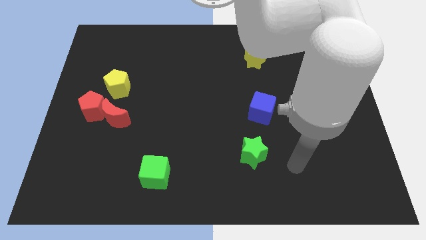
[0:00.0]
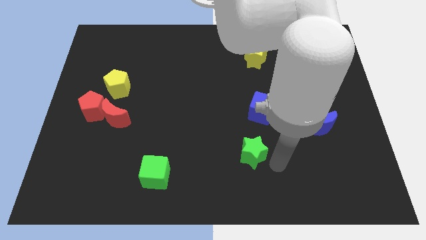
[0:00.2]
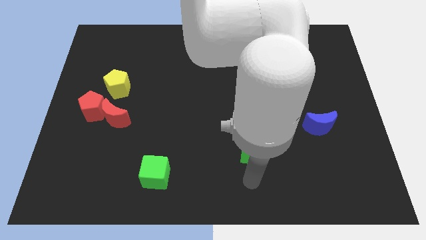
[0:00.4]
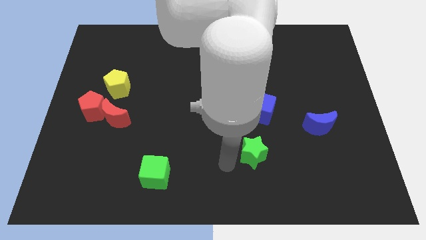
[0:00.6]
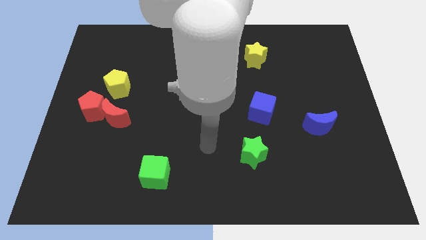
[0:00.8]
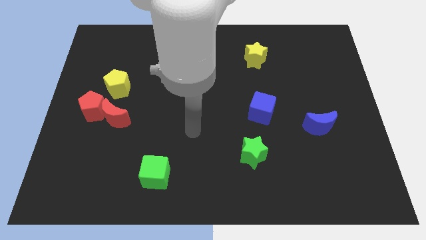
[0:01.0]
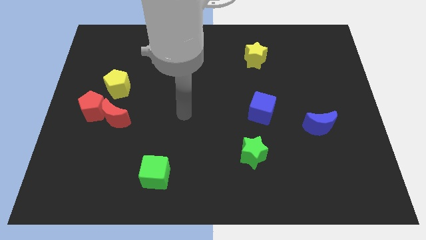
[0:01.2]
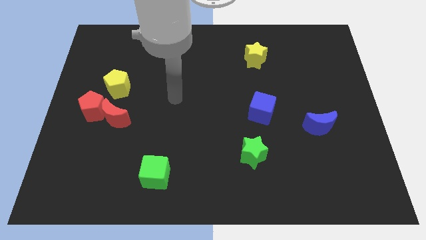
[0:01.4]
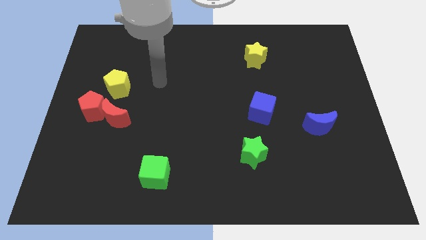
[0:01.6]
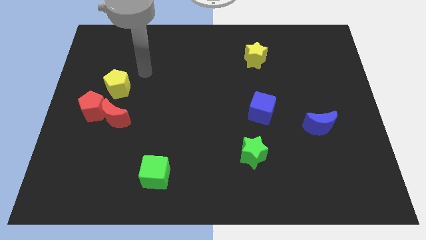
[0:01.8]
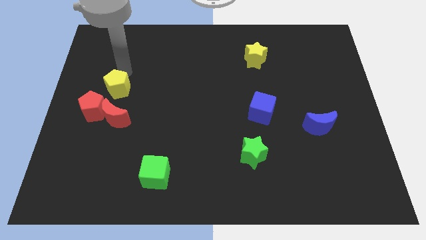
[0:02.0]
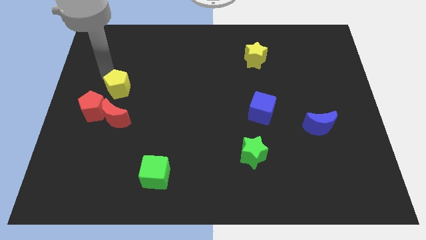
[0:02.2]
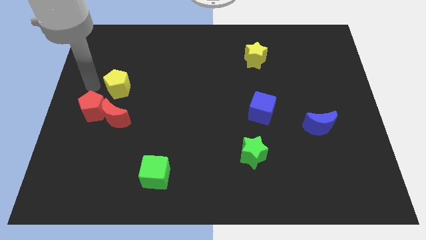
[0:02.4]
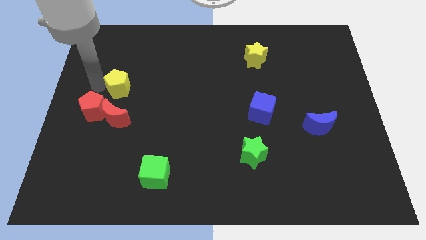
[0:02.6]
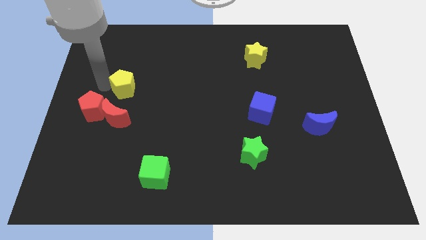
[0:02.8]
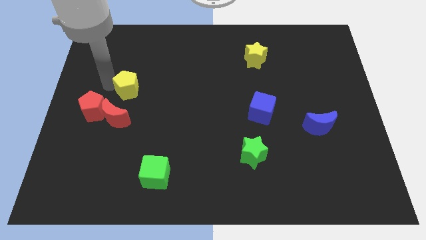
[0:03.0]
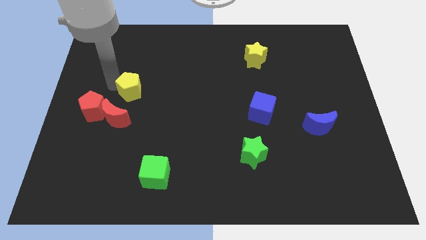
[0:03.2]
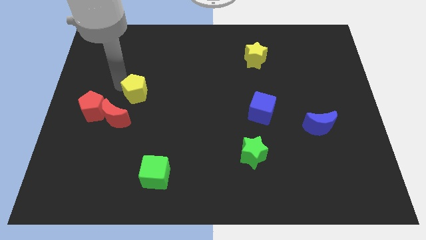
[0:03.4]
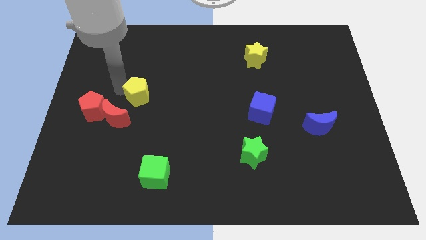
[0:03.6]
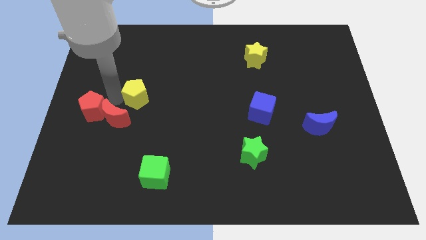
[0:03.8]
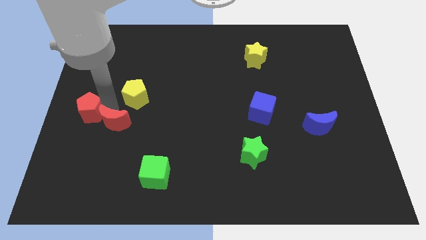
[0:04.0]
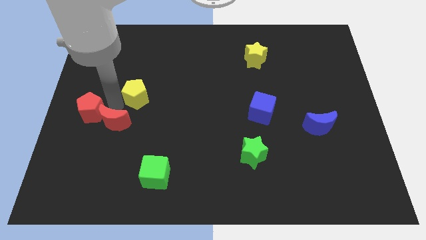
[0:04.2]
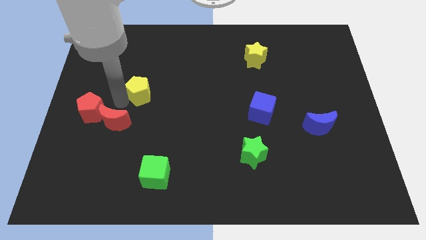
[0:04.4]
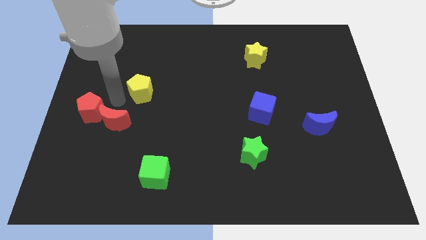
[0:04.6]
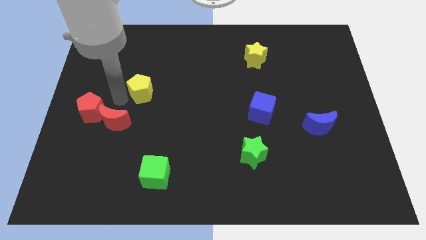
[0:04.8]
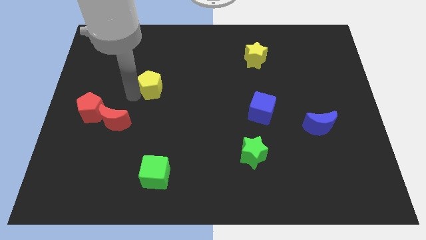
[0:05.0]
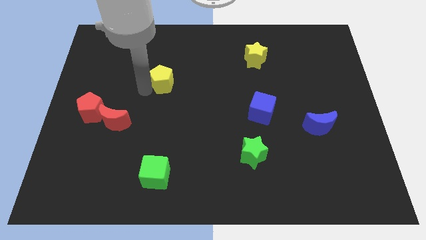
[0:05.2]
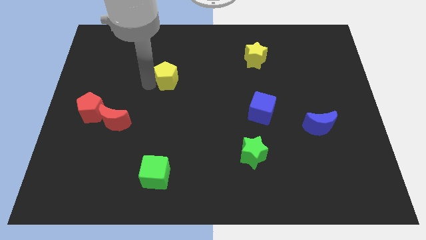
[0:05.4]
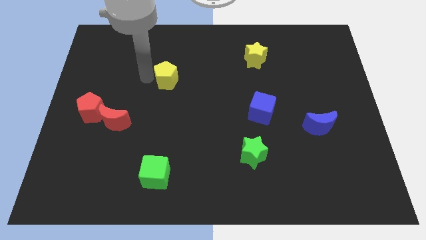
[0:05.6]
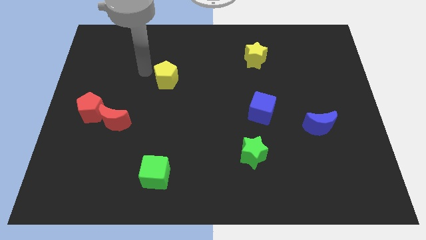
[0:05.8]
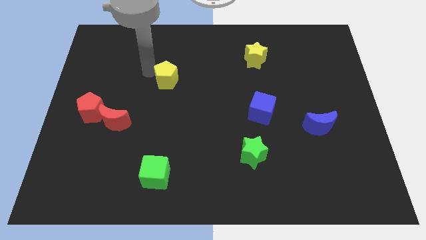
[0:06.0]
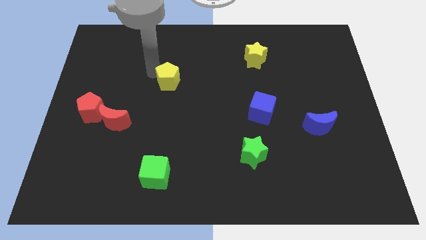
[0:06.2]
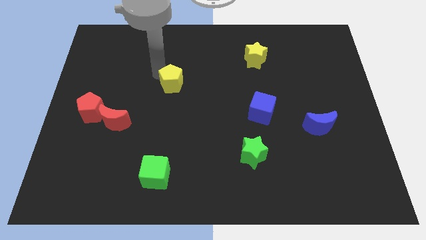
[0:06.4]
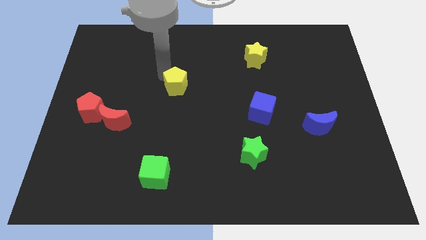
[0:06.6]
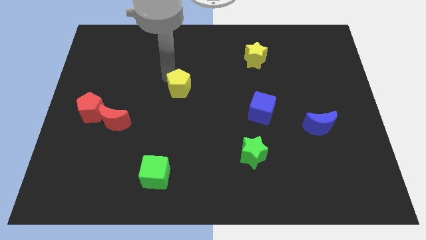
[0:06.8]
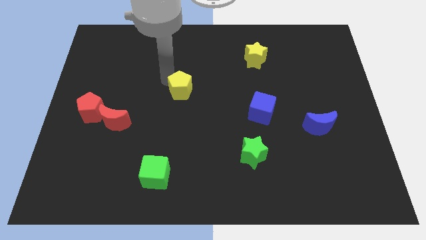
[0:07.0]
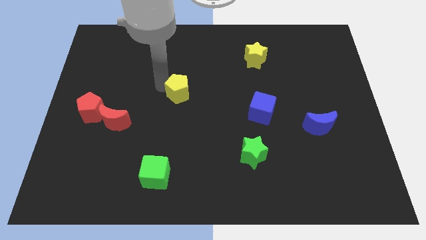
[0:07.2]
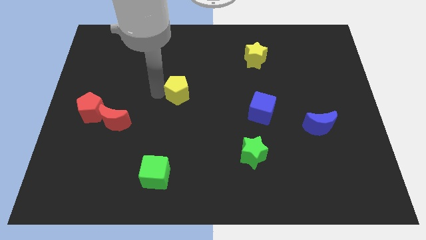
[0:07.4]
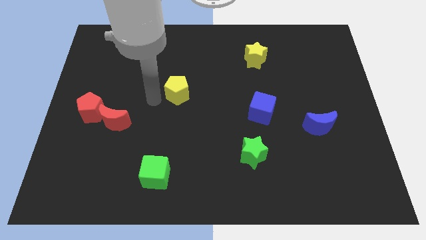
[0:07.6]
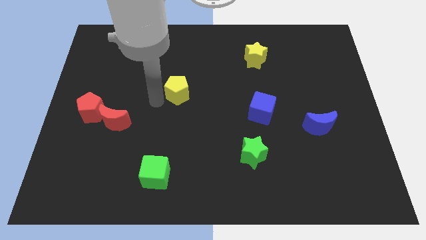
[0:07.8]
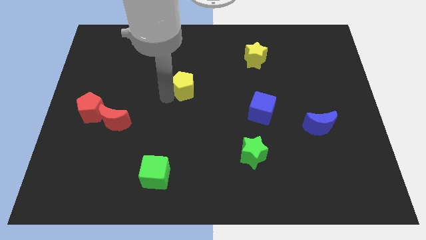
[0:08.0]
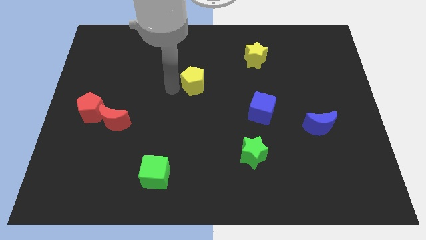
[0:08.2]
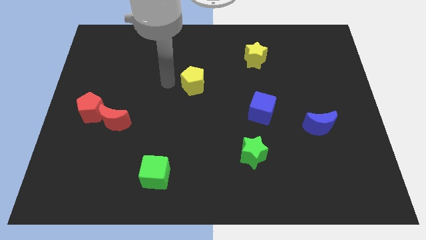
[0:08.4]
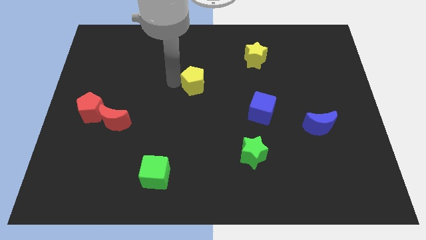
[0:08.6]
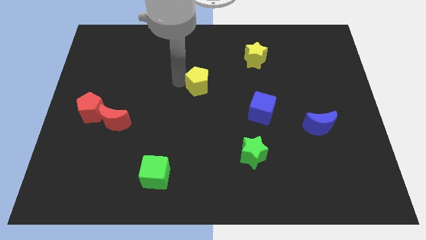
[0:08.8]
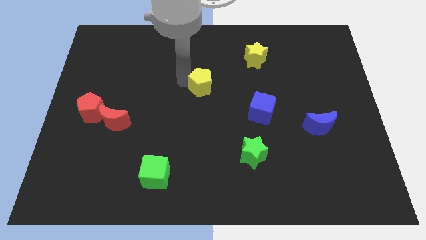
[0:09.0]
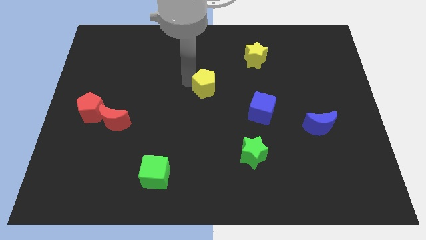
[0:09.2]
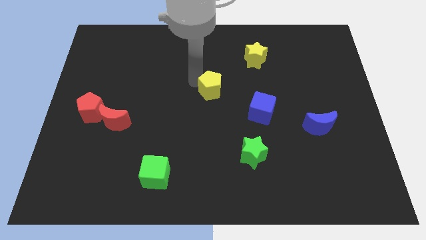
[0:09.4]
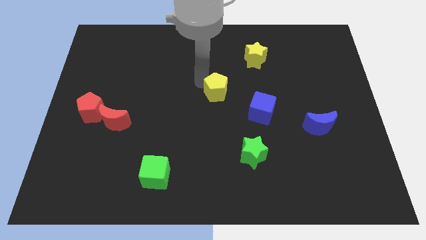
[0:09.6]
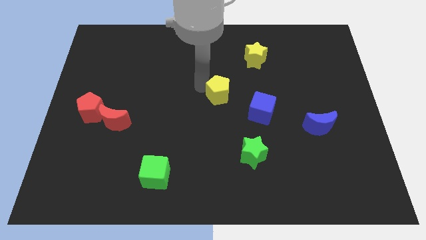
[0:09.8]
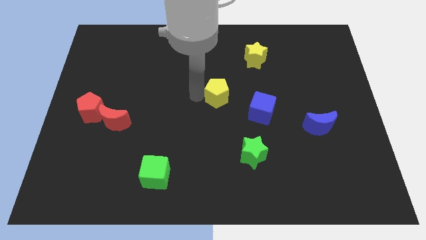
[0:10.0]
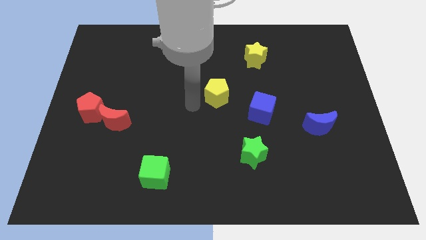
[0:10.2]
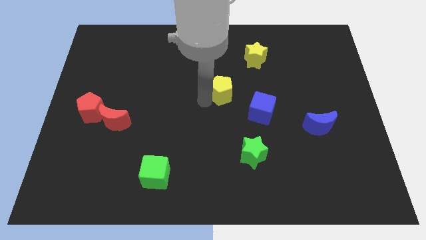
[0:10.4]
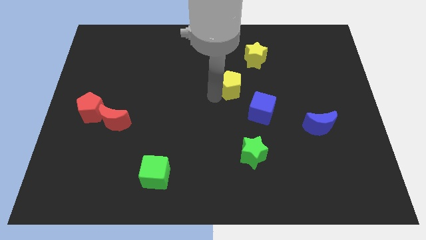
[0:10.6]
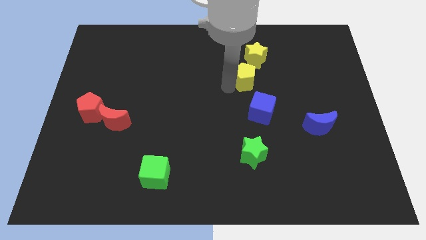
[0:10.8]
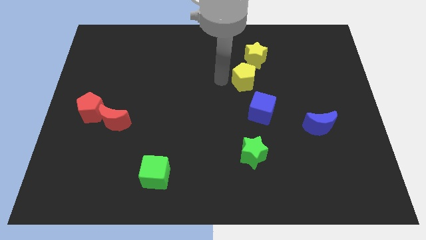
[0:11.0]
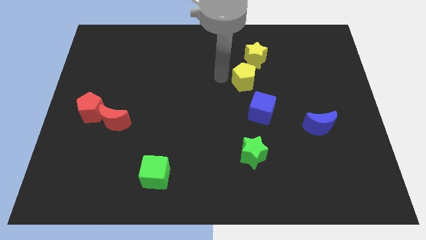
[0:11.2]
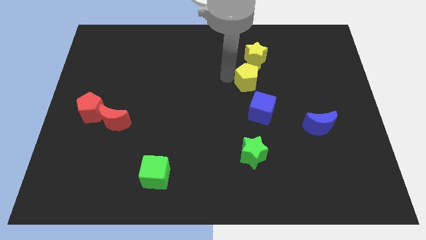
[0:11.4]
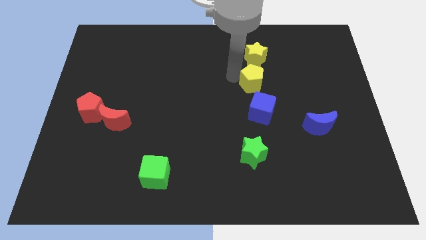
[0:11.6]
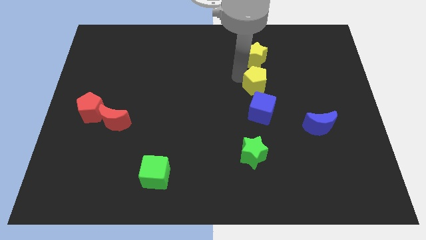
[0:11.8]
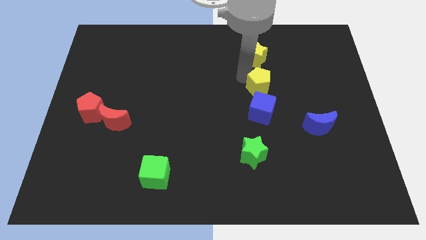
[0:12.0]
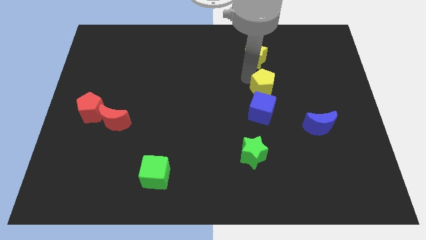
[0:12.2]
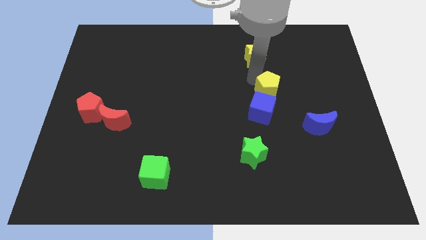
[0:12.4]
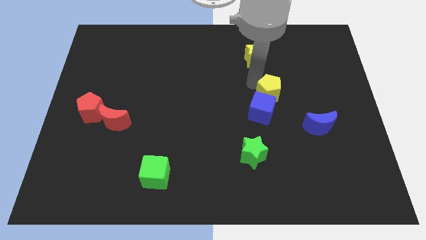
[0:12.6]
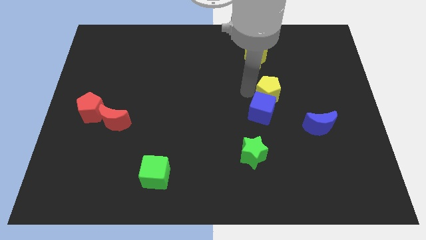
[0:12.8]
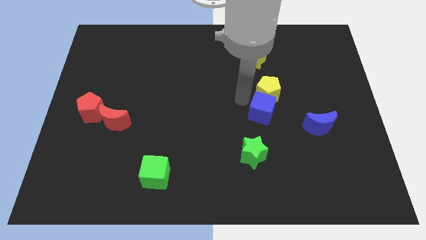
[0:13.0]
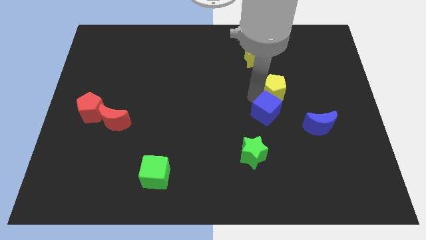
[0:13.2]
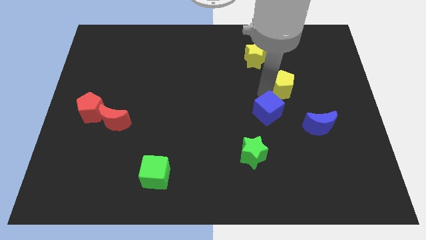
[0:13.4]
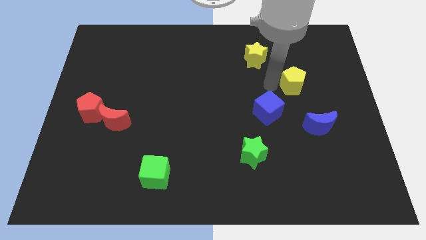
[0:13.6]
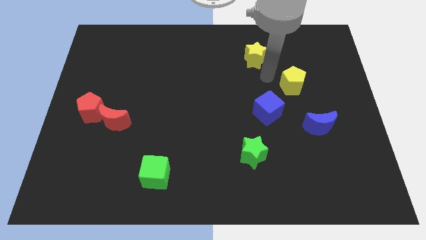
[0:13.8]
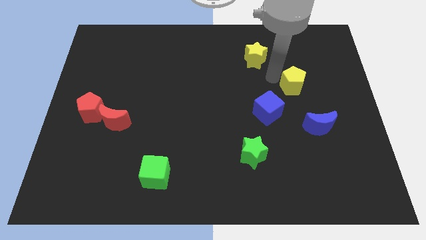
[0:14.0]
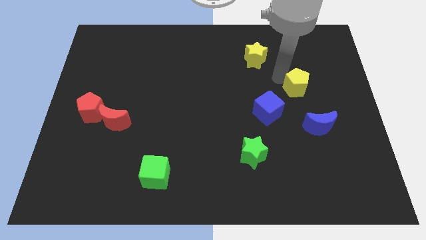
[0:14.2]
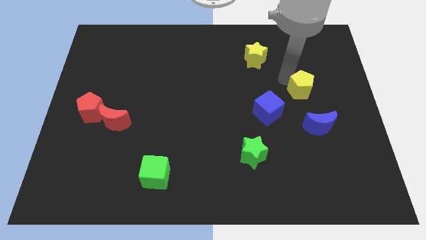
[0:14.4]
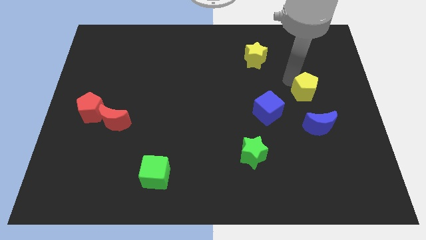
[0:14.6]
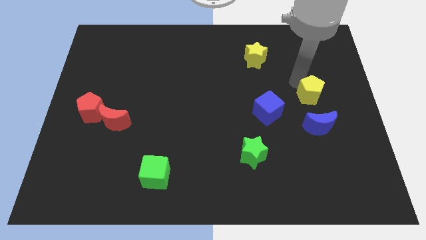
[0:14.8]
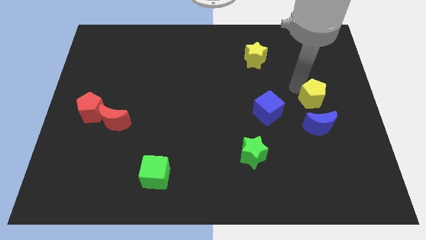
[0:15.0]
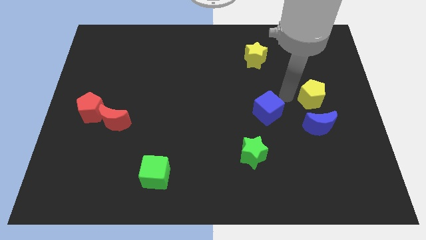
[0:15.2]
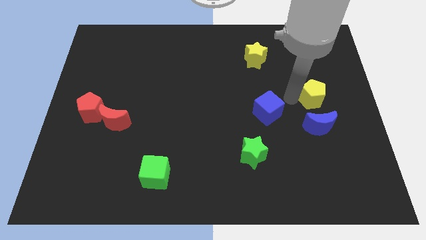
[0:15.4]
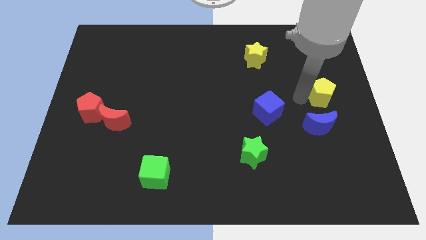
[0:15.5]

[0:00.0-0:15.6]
put the yellow pentagon to the right side
